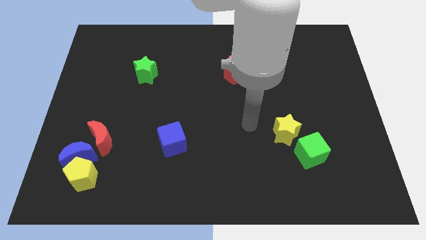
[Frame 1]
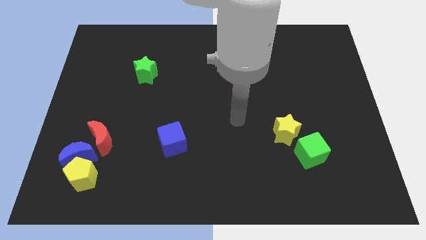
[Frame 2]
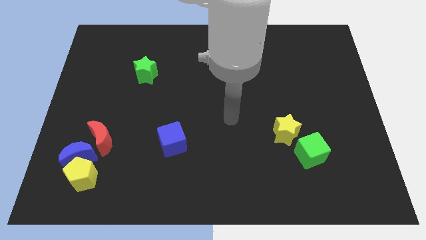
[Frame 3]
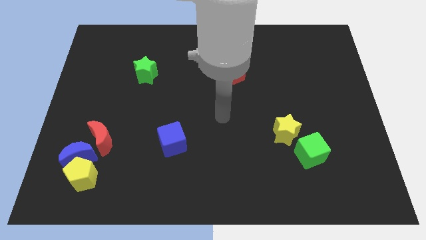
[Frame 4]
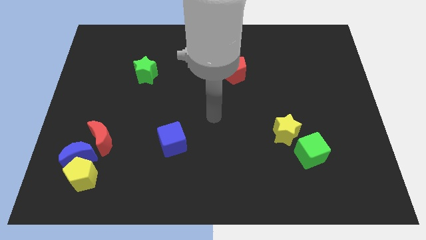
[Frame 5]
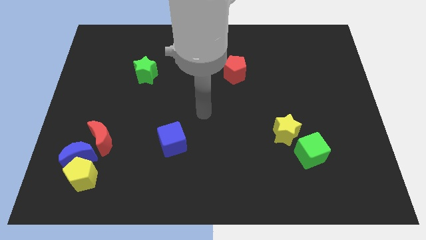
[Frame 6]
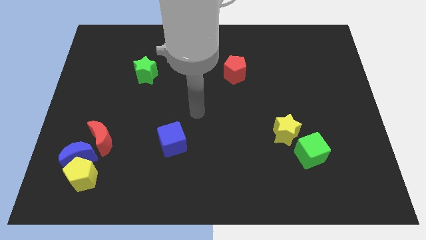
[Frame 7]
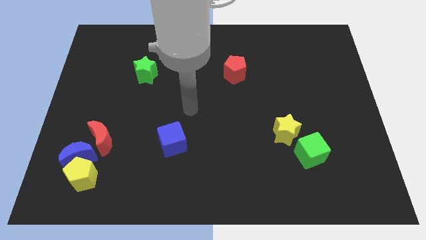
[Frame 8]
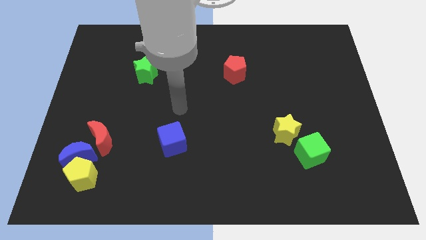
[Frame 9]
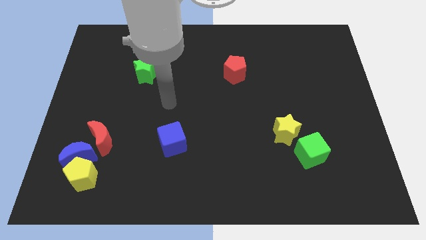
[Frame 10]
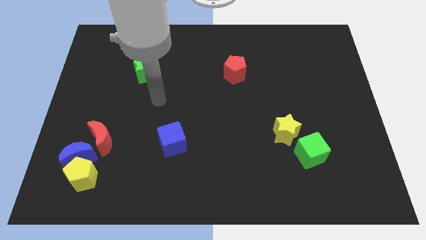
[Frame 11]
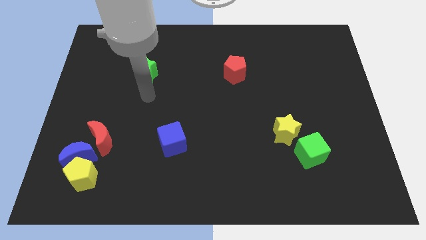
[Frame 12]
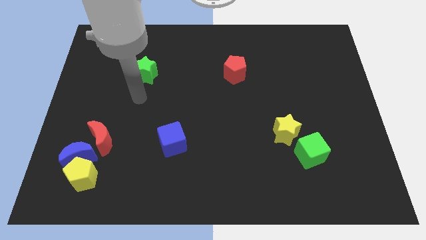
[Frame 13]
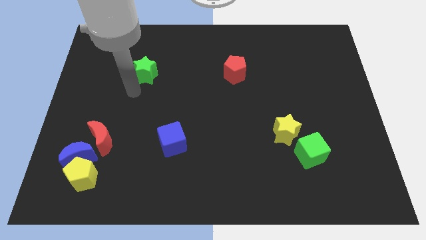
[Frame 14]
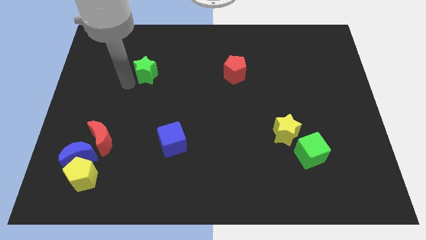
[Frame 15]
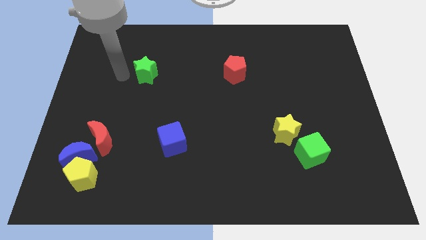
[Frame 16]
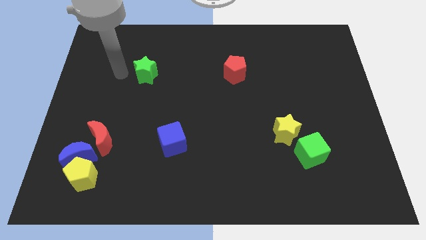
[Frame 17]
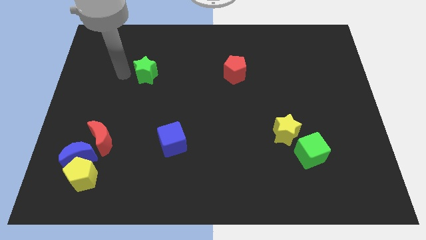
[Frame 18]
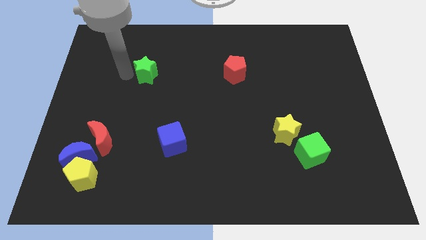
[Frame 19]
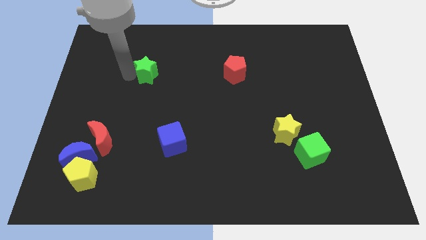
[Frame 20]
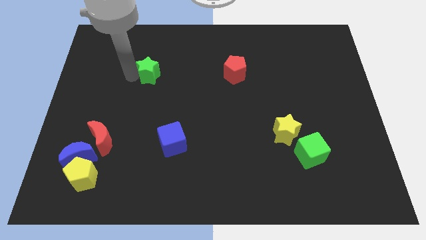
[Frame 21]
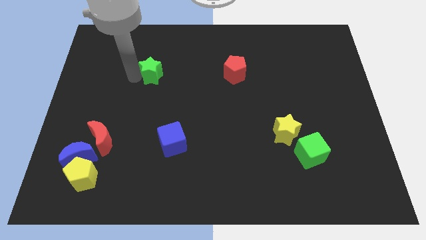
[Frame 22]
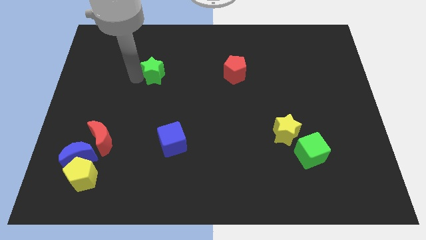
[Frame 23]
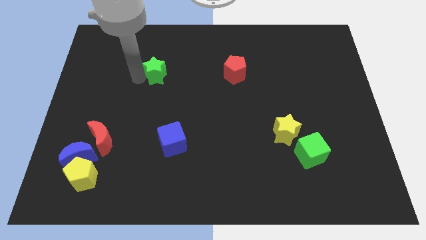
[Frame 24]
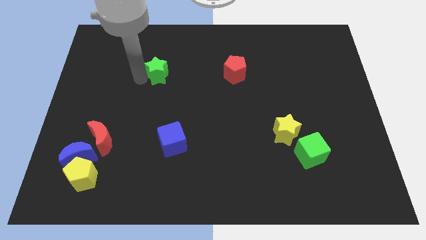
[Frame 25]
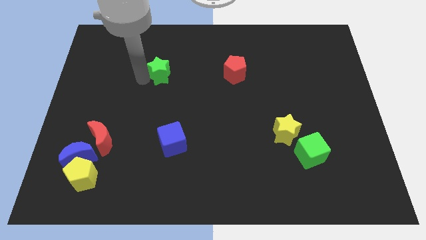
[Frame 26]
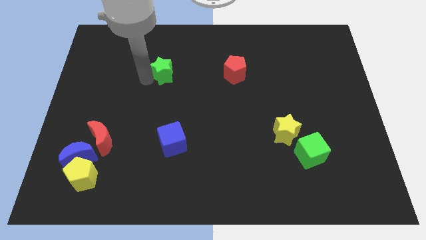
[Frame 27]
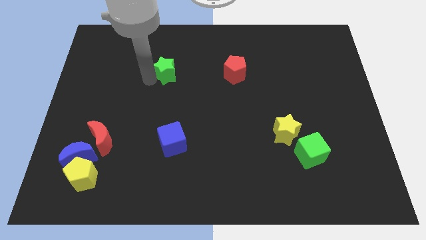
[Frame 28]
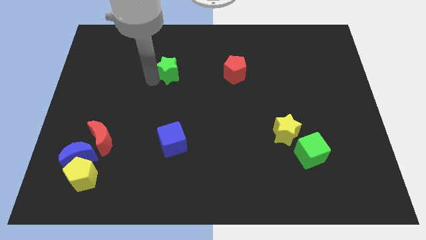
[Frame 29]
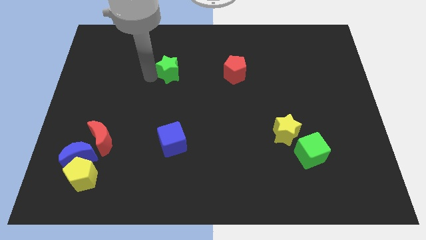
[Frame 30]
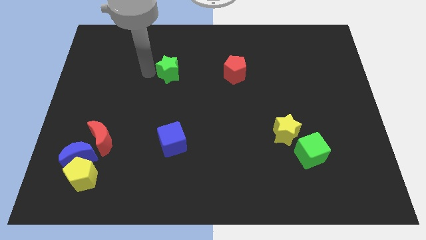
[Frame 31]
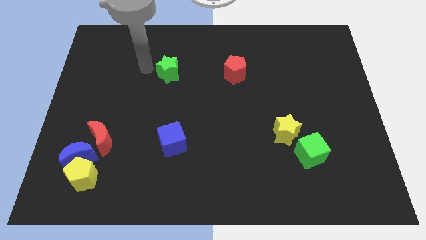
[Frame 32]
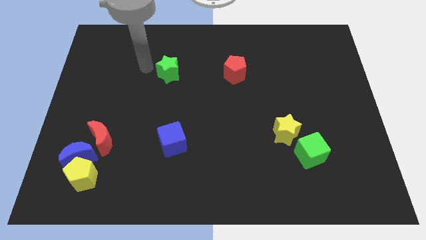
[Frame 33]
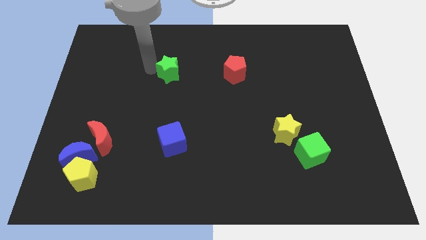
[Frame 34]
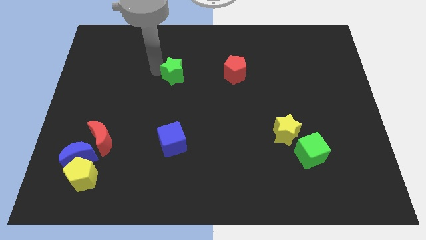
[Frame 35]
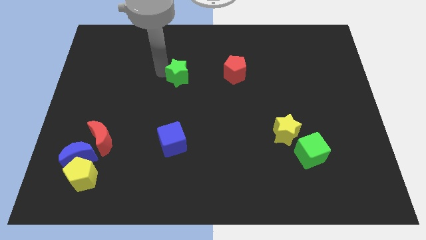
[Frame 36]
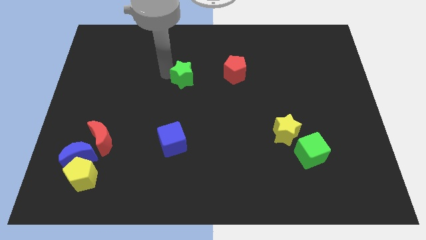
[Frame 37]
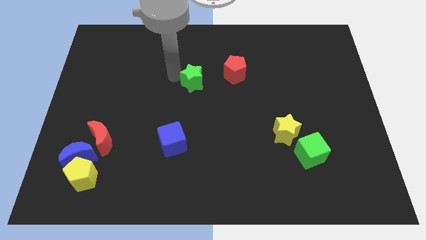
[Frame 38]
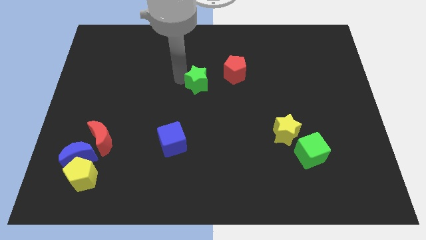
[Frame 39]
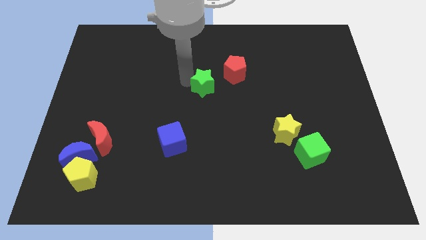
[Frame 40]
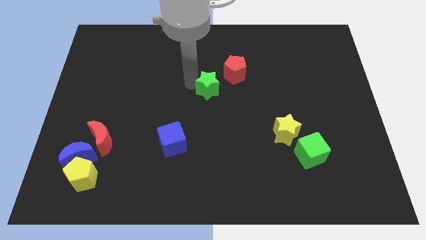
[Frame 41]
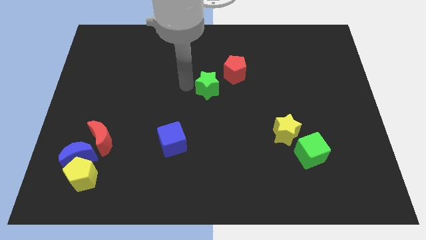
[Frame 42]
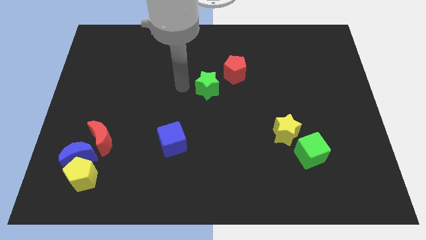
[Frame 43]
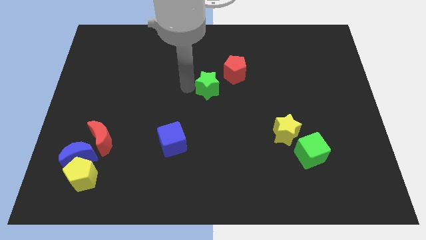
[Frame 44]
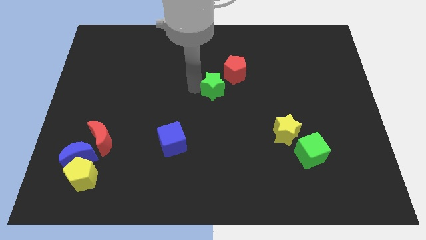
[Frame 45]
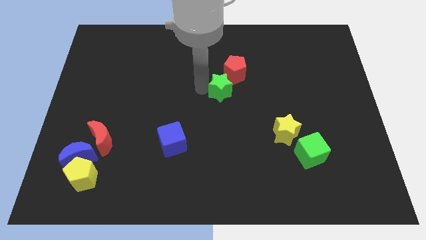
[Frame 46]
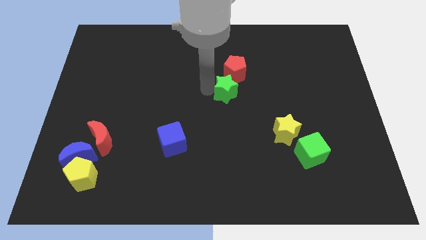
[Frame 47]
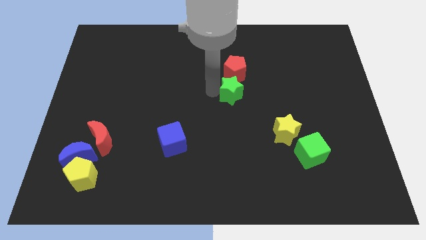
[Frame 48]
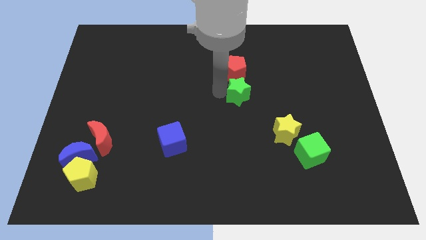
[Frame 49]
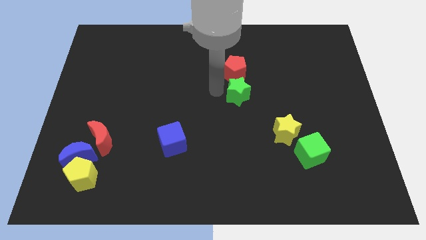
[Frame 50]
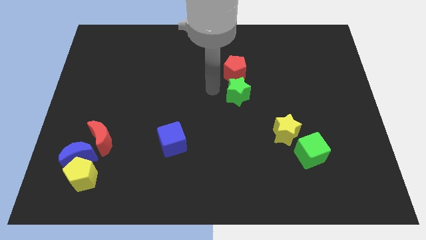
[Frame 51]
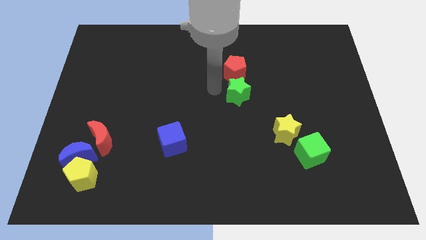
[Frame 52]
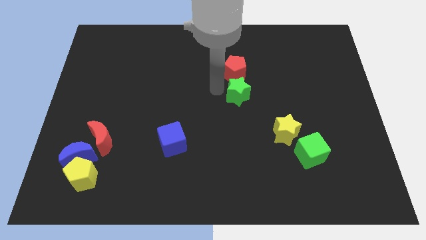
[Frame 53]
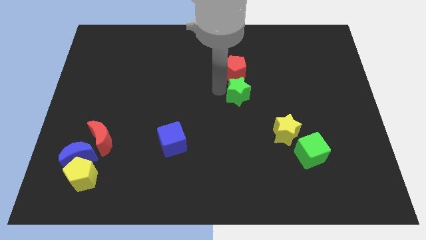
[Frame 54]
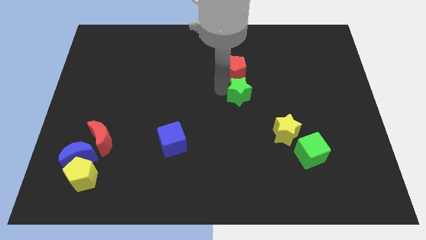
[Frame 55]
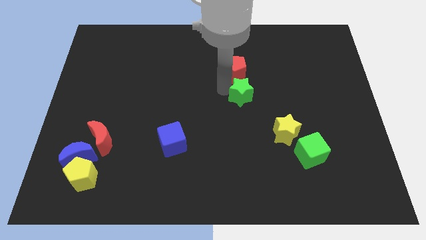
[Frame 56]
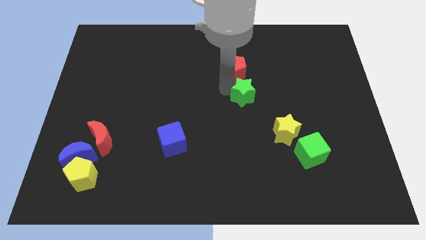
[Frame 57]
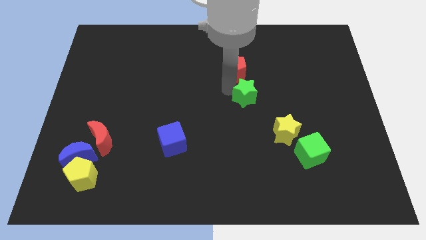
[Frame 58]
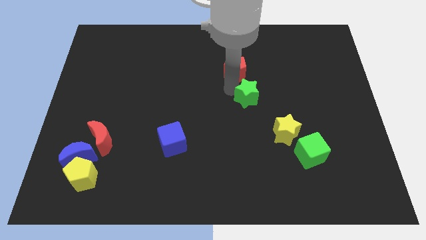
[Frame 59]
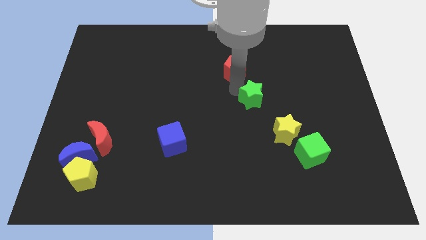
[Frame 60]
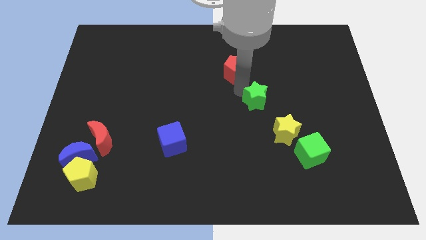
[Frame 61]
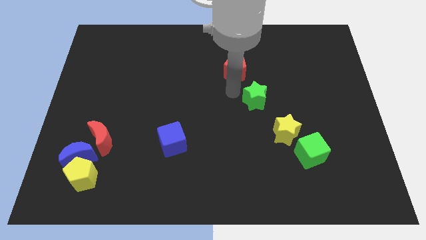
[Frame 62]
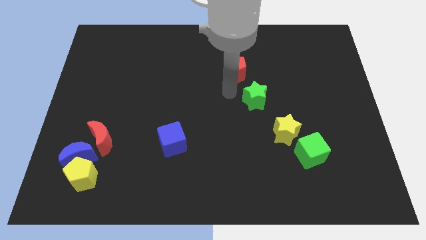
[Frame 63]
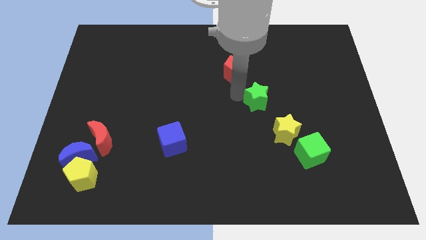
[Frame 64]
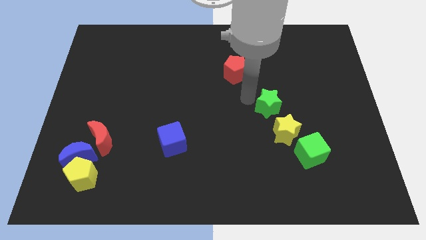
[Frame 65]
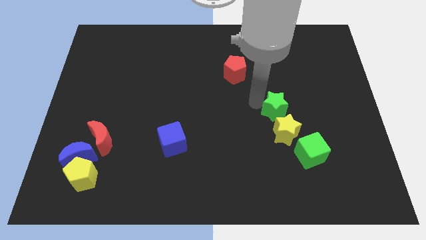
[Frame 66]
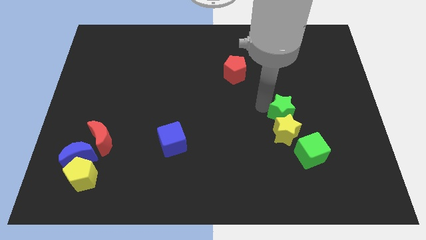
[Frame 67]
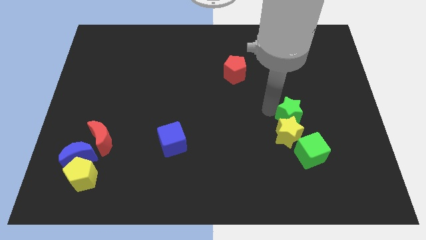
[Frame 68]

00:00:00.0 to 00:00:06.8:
slide the green star to the top of the green cube

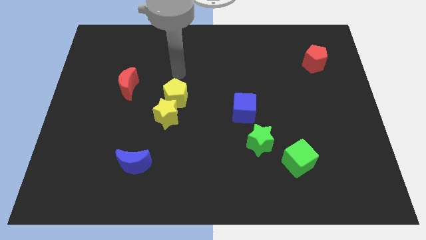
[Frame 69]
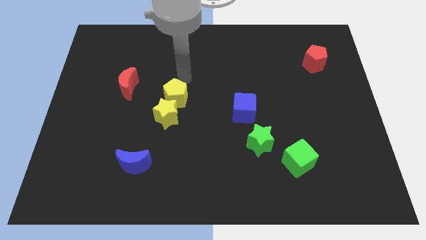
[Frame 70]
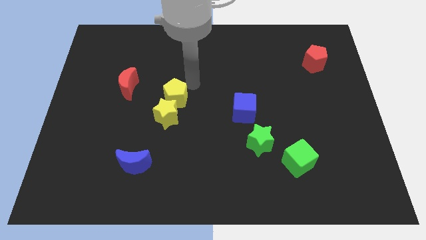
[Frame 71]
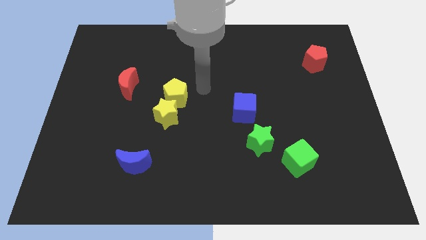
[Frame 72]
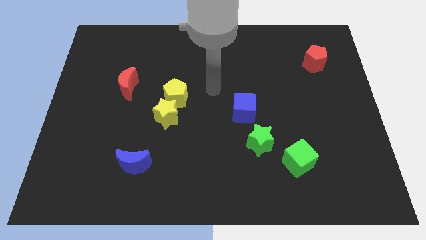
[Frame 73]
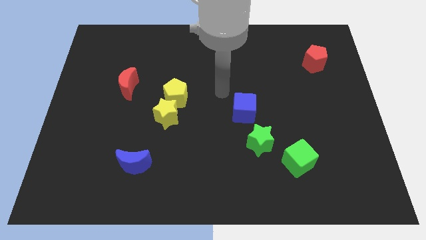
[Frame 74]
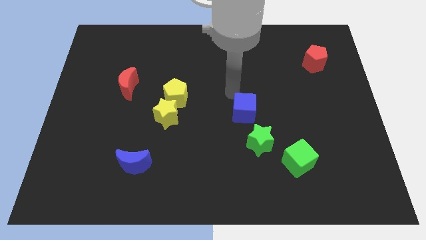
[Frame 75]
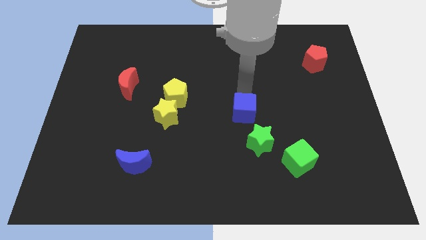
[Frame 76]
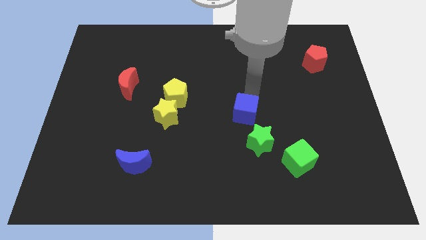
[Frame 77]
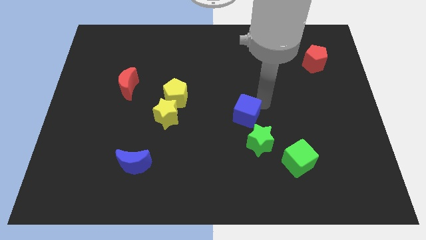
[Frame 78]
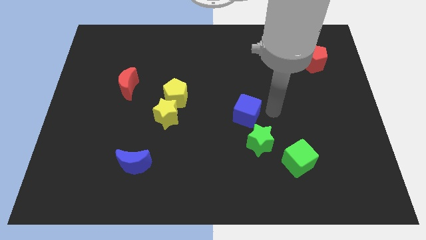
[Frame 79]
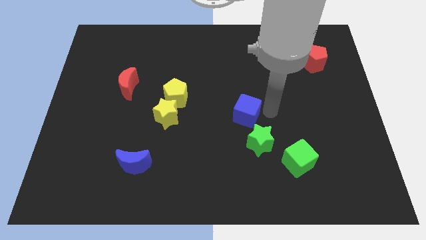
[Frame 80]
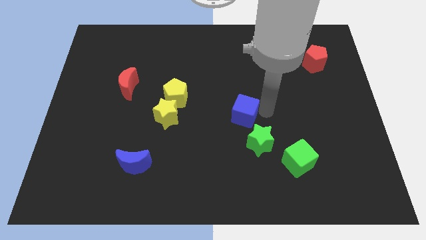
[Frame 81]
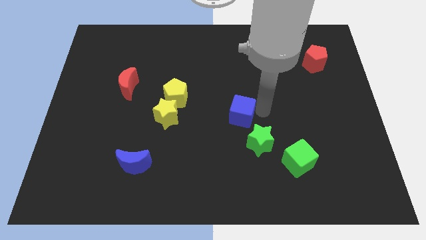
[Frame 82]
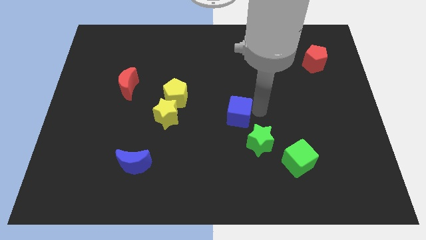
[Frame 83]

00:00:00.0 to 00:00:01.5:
put the blue cube to the right side of the yellow star
